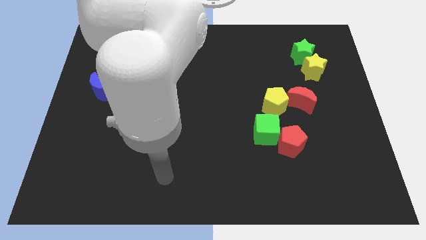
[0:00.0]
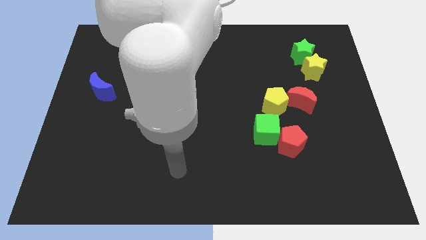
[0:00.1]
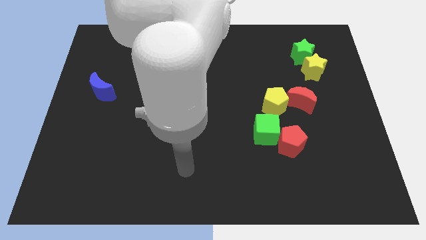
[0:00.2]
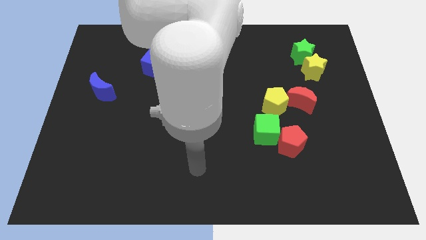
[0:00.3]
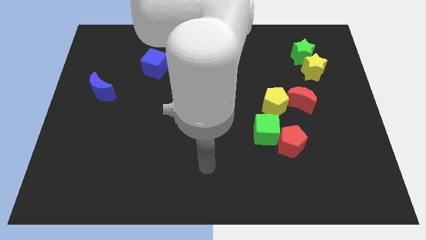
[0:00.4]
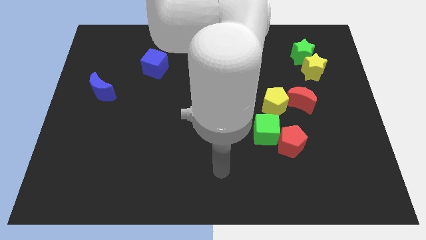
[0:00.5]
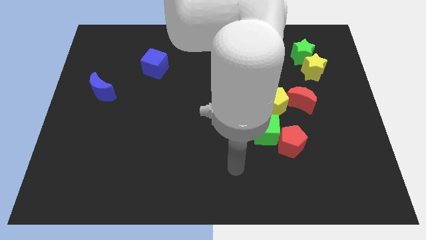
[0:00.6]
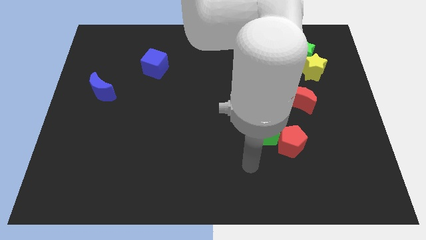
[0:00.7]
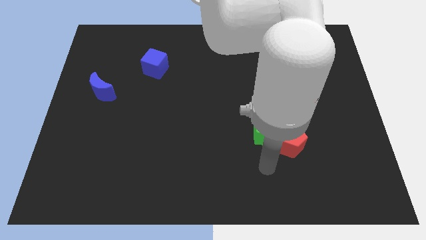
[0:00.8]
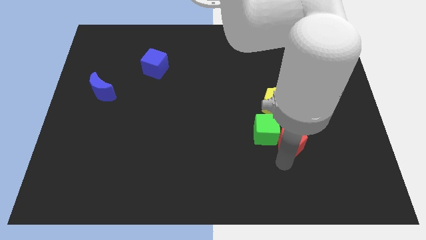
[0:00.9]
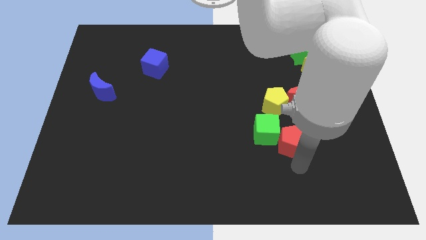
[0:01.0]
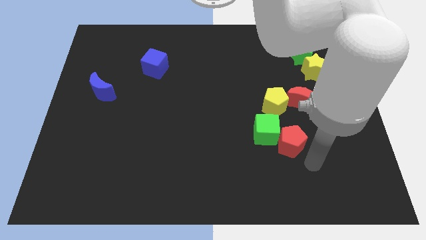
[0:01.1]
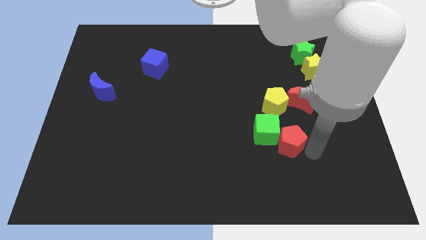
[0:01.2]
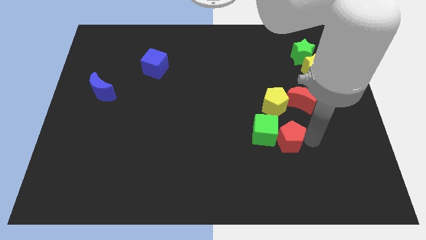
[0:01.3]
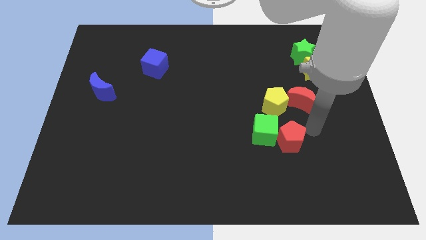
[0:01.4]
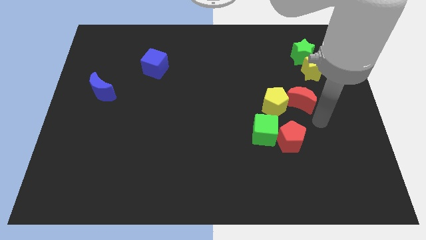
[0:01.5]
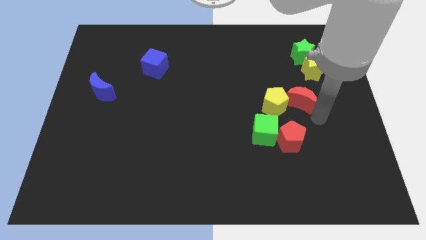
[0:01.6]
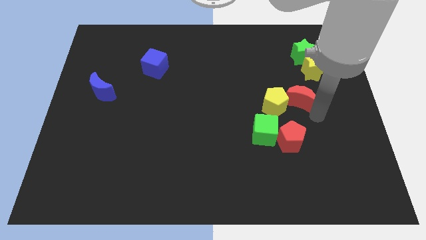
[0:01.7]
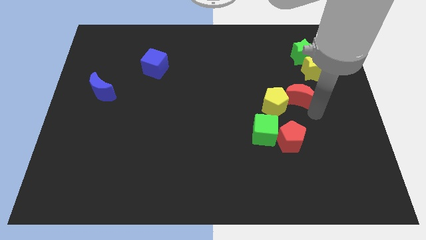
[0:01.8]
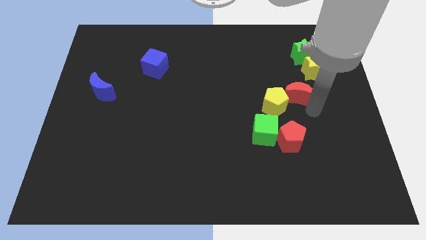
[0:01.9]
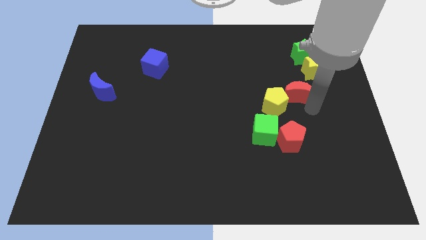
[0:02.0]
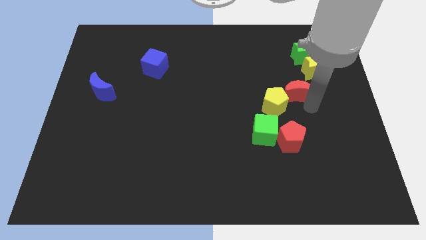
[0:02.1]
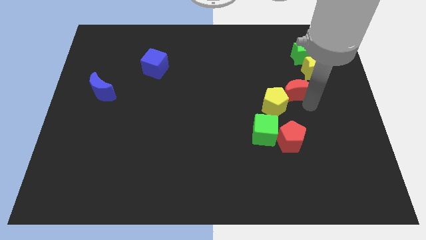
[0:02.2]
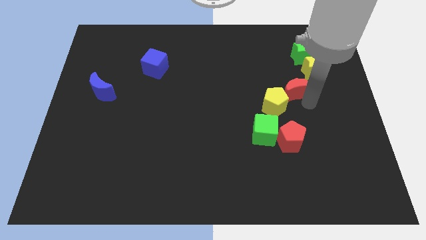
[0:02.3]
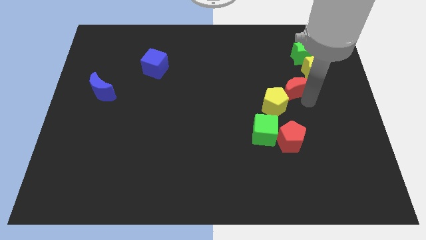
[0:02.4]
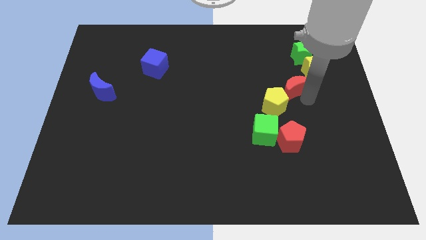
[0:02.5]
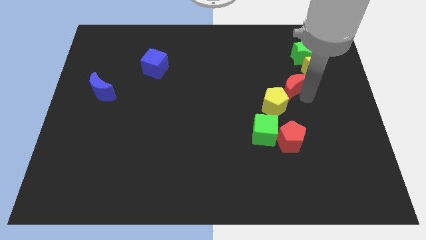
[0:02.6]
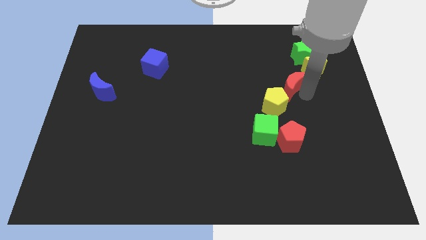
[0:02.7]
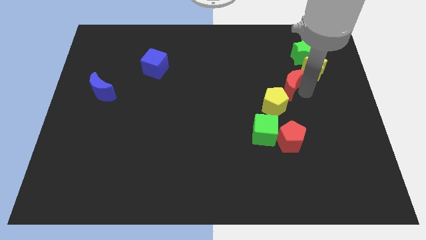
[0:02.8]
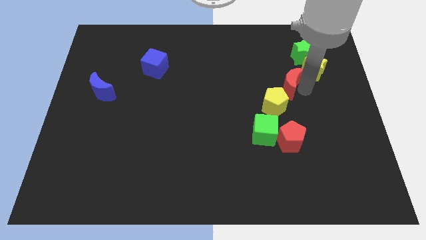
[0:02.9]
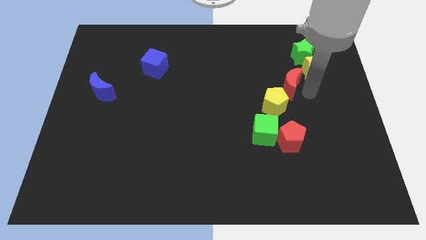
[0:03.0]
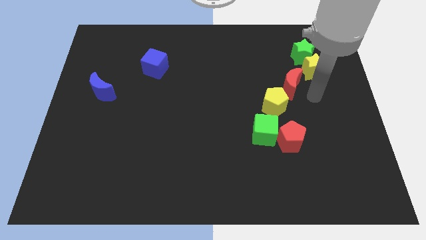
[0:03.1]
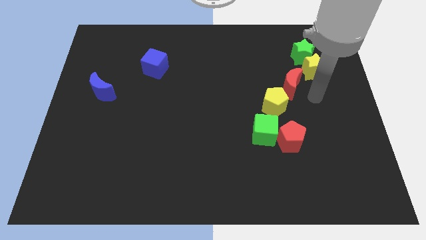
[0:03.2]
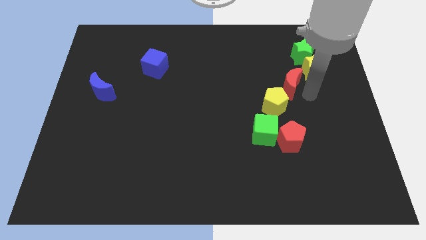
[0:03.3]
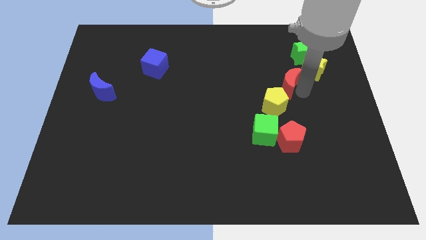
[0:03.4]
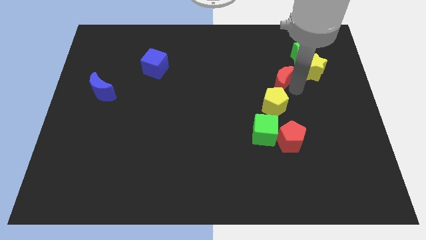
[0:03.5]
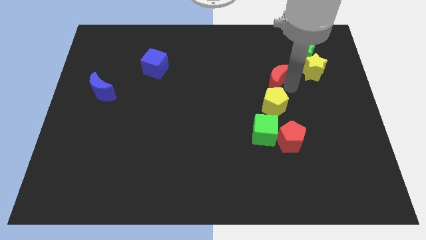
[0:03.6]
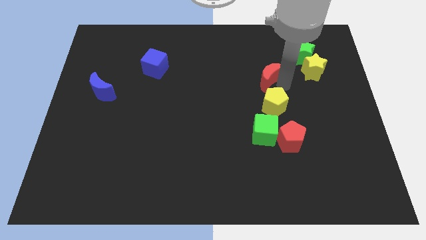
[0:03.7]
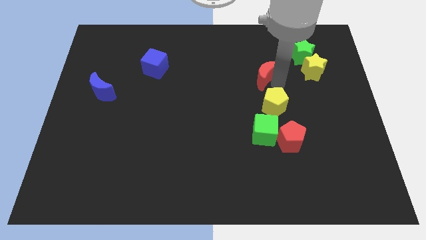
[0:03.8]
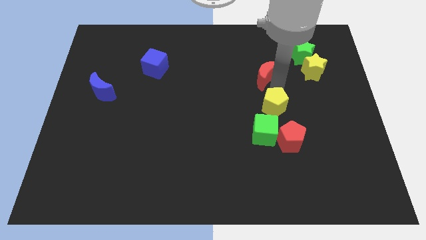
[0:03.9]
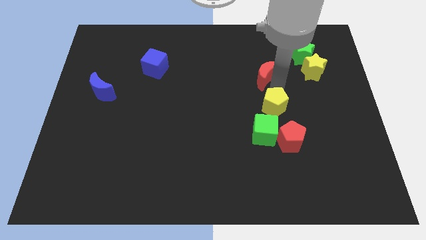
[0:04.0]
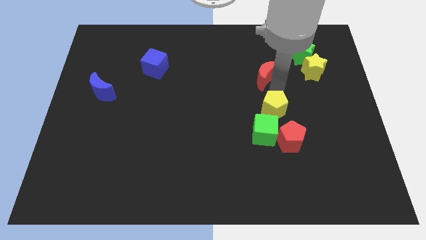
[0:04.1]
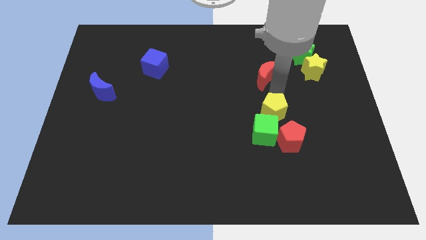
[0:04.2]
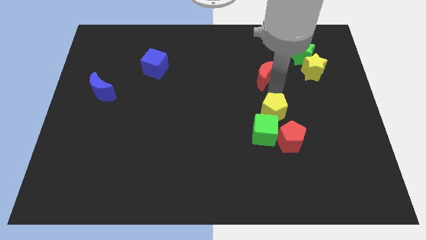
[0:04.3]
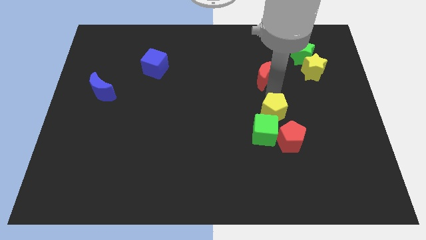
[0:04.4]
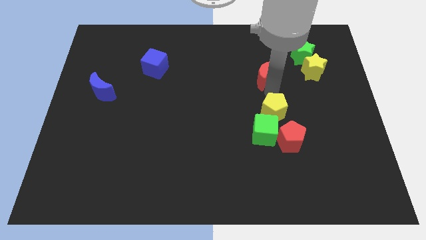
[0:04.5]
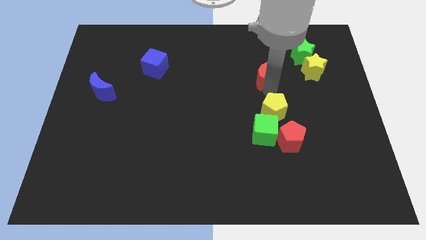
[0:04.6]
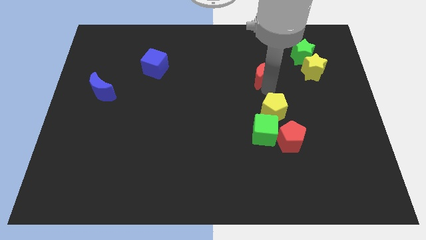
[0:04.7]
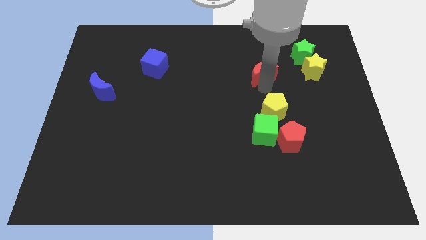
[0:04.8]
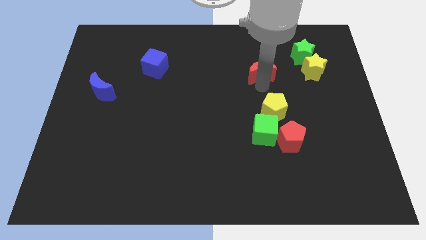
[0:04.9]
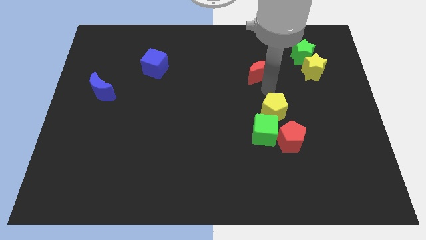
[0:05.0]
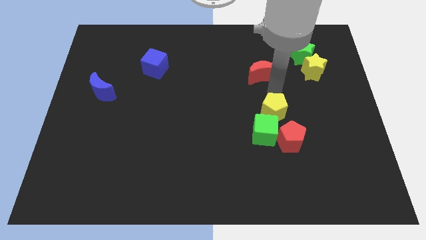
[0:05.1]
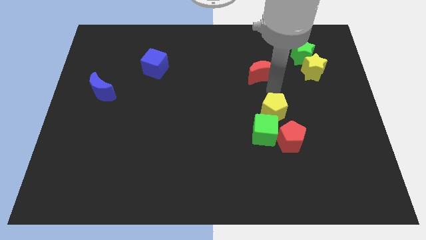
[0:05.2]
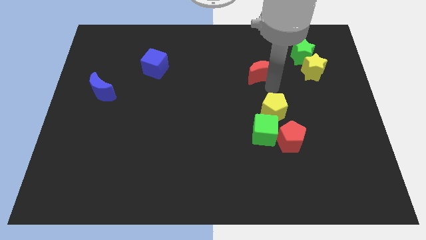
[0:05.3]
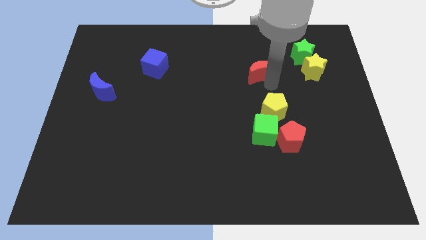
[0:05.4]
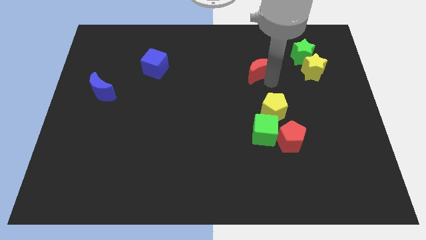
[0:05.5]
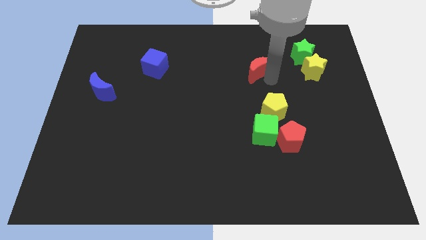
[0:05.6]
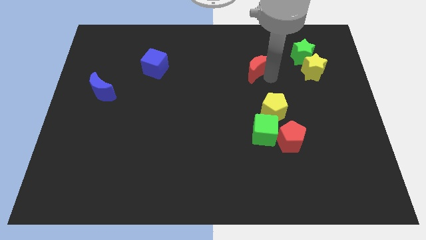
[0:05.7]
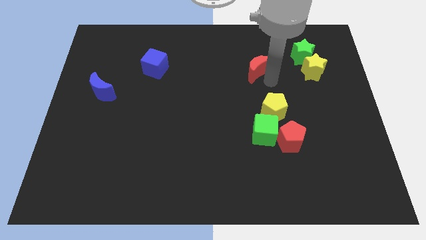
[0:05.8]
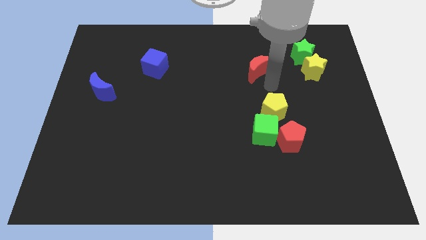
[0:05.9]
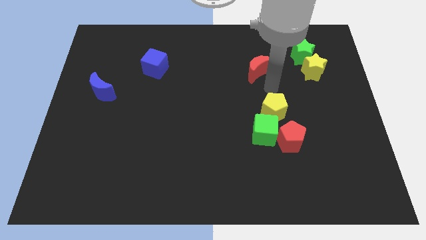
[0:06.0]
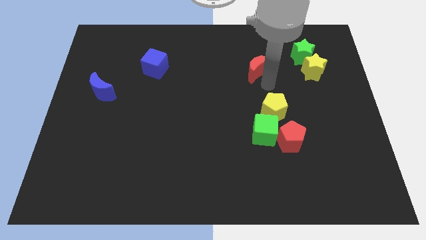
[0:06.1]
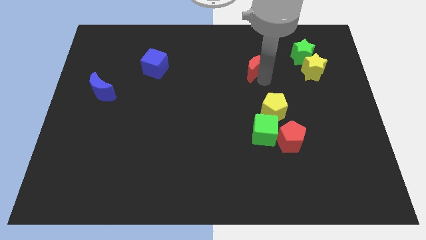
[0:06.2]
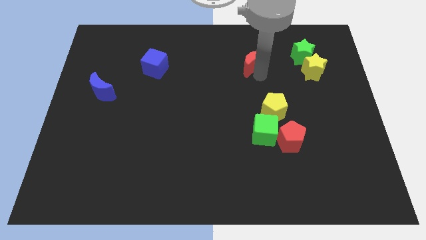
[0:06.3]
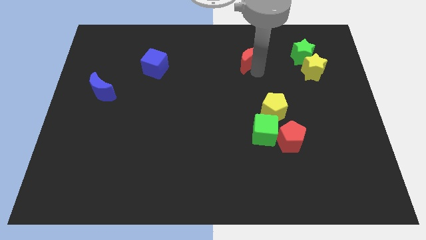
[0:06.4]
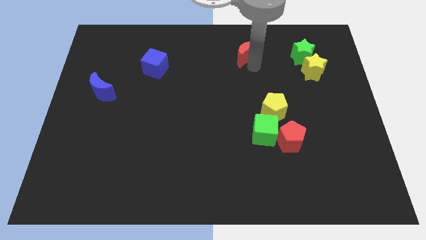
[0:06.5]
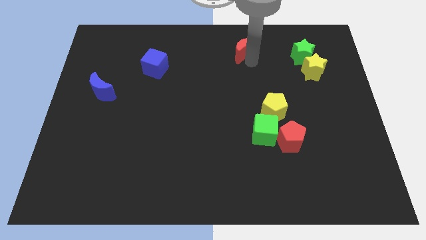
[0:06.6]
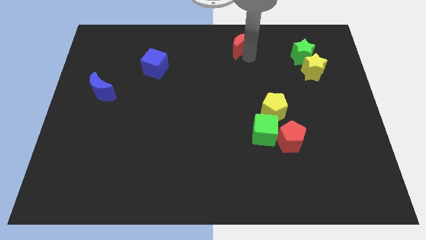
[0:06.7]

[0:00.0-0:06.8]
push the red moon to the top side
